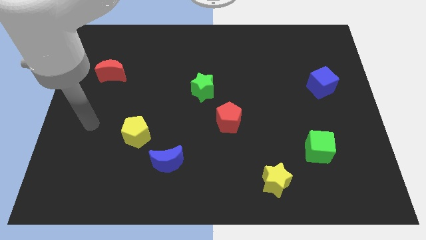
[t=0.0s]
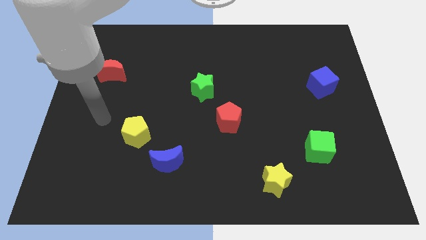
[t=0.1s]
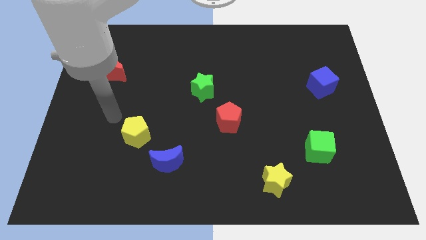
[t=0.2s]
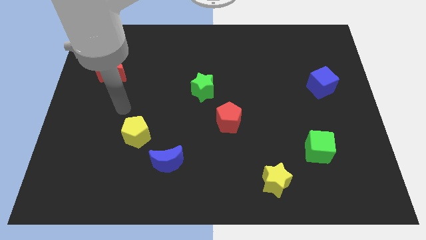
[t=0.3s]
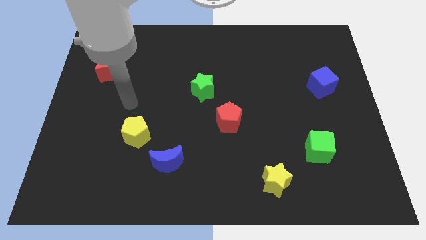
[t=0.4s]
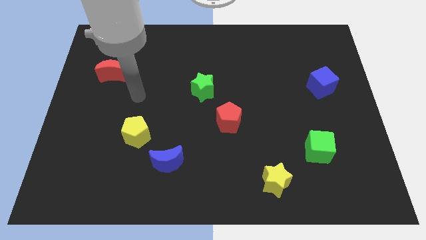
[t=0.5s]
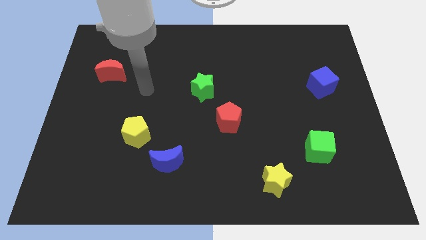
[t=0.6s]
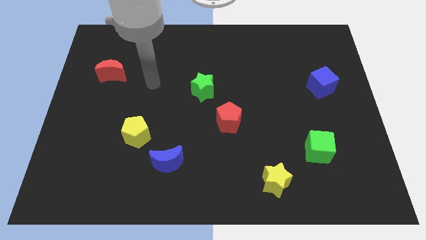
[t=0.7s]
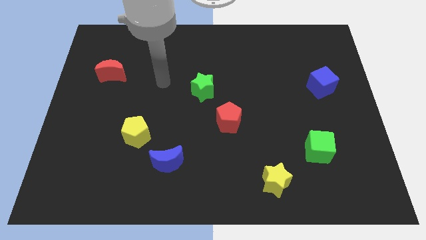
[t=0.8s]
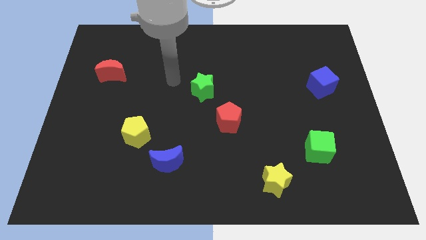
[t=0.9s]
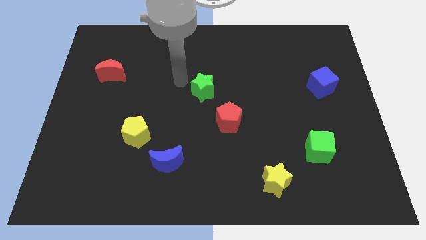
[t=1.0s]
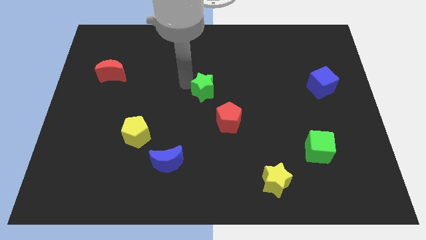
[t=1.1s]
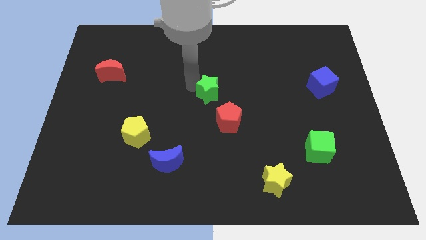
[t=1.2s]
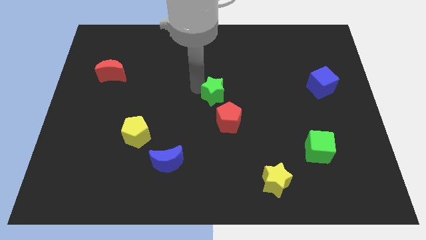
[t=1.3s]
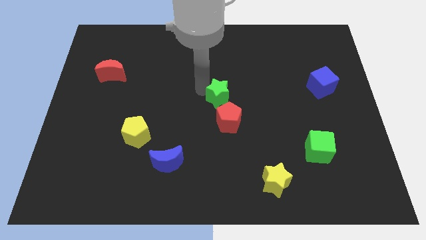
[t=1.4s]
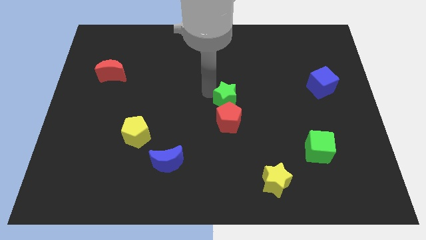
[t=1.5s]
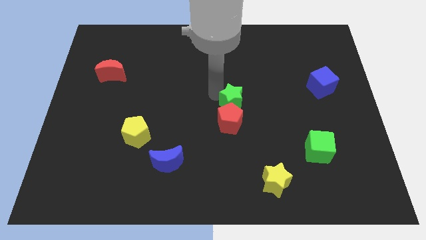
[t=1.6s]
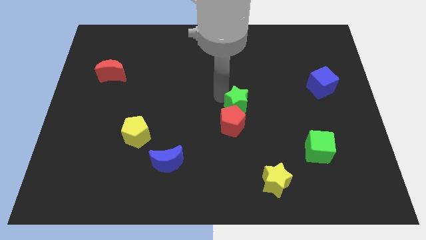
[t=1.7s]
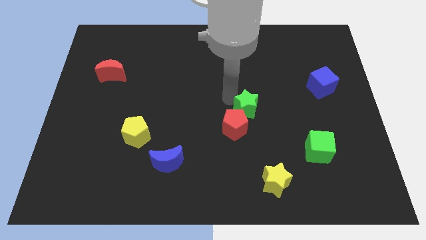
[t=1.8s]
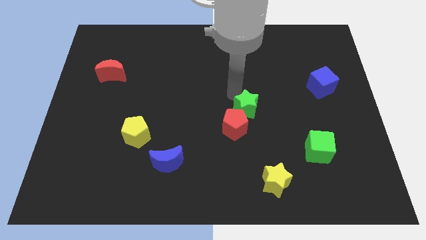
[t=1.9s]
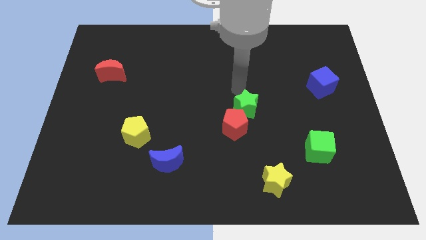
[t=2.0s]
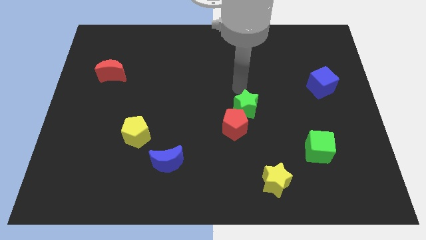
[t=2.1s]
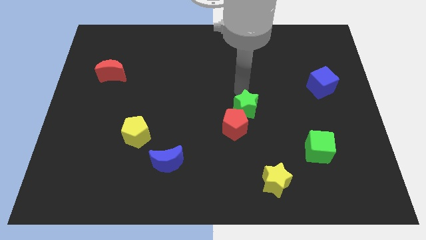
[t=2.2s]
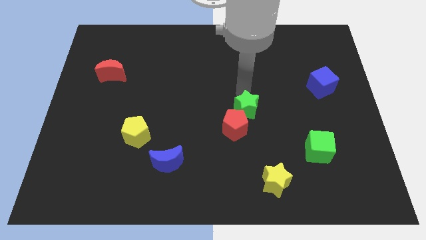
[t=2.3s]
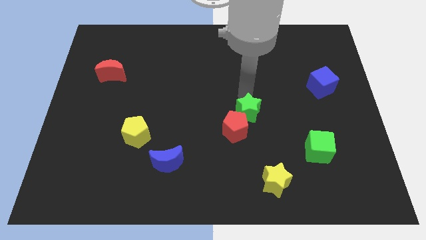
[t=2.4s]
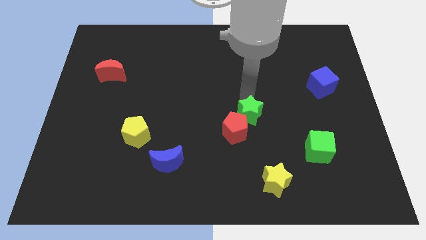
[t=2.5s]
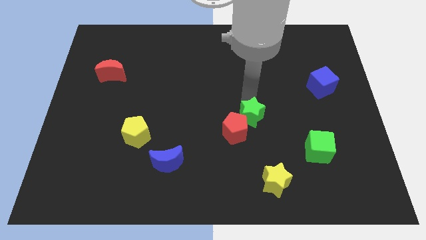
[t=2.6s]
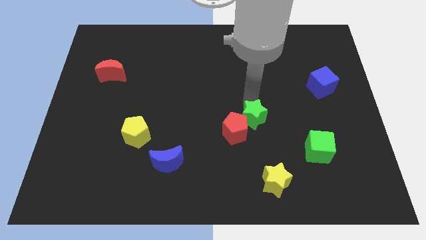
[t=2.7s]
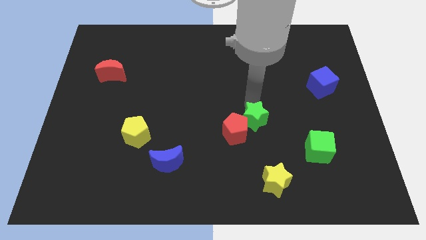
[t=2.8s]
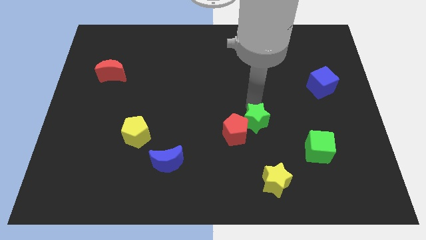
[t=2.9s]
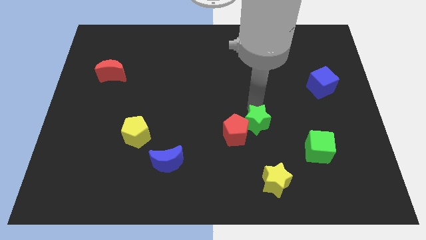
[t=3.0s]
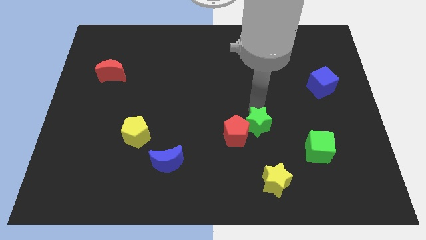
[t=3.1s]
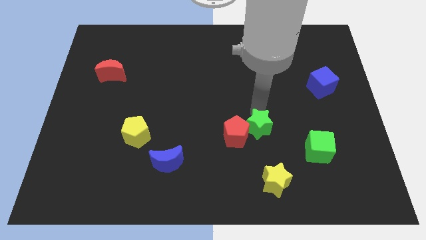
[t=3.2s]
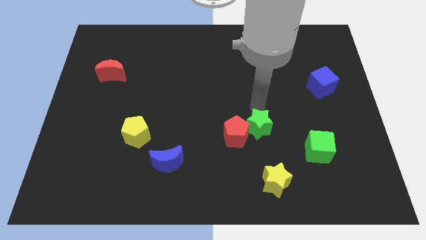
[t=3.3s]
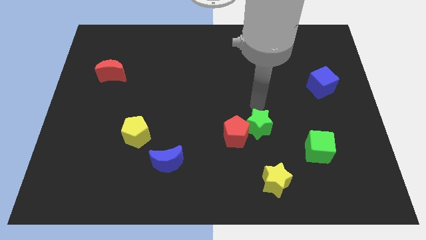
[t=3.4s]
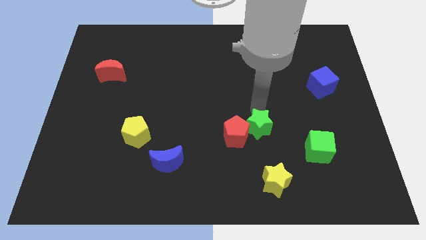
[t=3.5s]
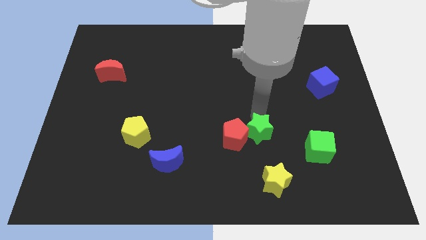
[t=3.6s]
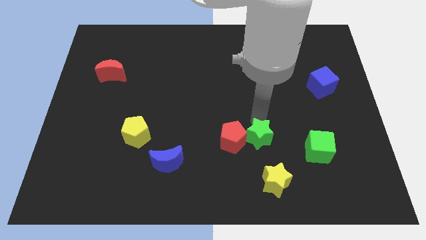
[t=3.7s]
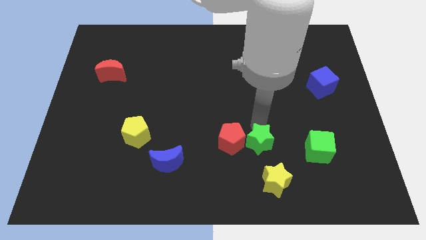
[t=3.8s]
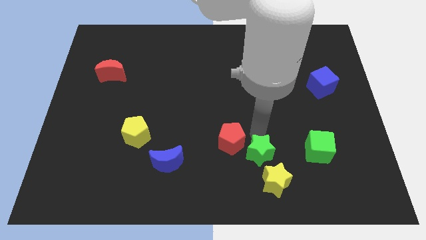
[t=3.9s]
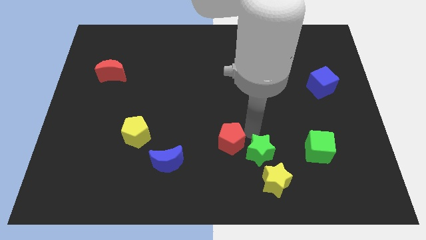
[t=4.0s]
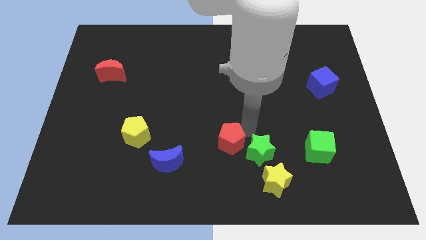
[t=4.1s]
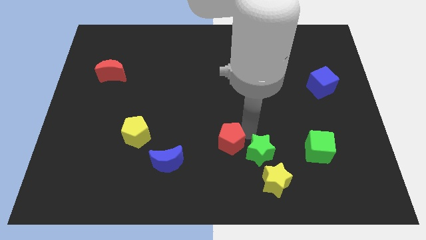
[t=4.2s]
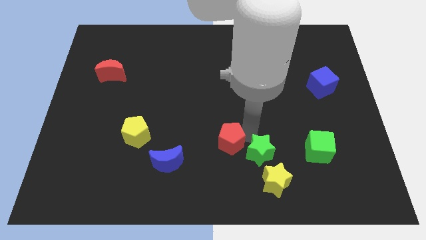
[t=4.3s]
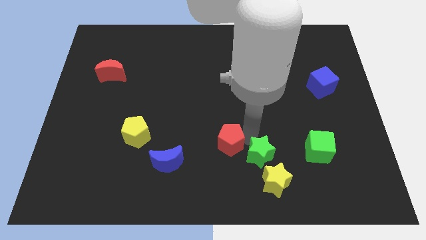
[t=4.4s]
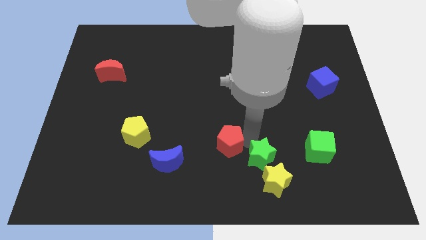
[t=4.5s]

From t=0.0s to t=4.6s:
put the green star to the yellow star

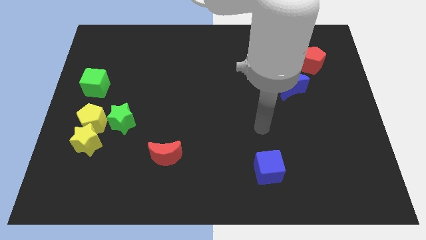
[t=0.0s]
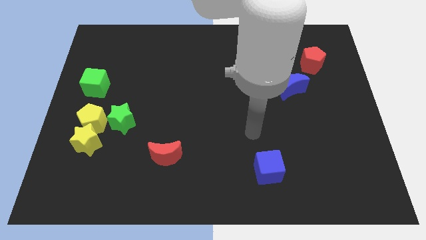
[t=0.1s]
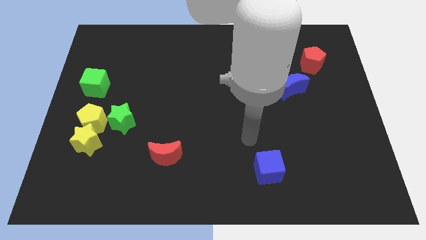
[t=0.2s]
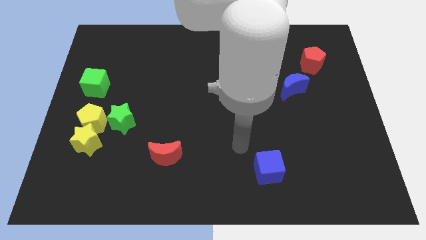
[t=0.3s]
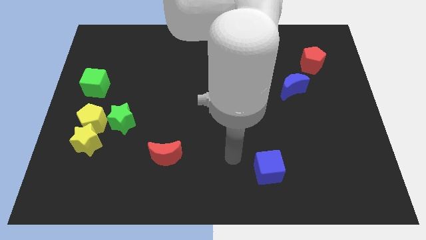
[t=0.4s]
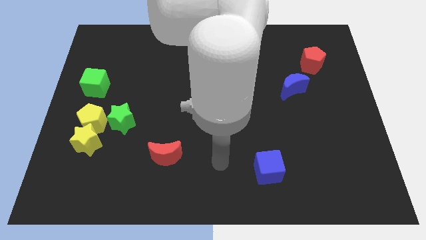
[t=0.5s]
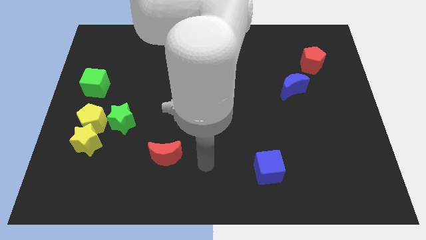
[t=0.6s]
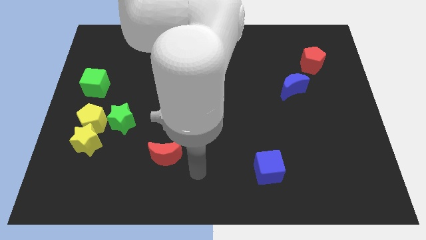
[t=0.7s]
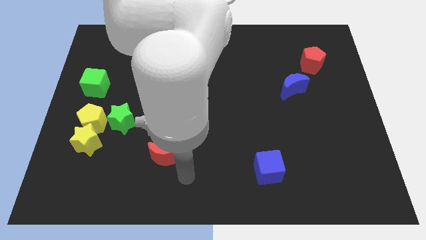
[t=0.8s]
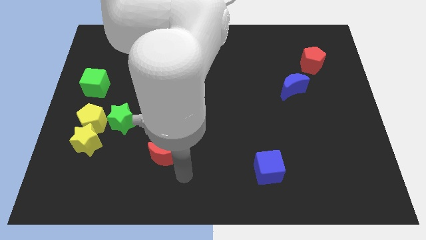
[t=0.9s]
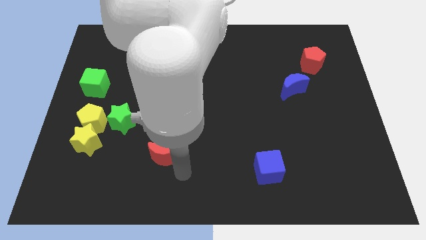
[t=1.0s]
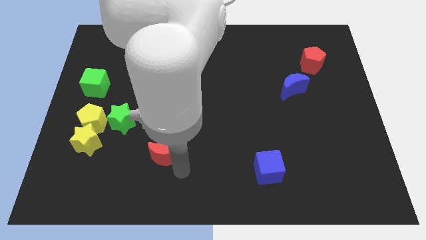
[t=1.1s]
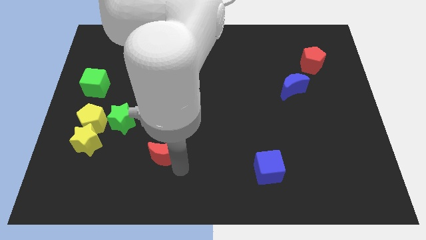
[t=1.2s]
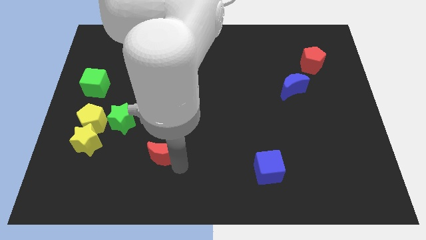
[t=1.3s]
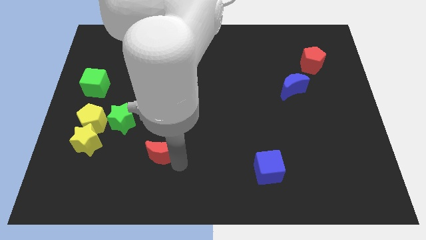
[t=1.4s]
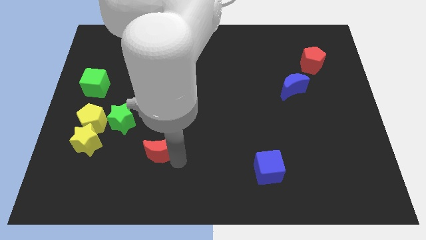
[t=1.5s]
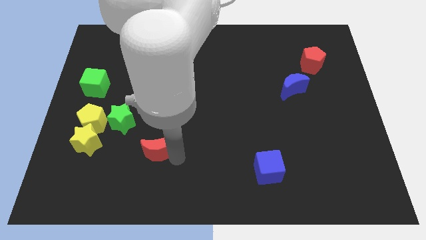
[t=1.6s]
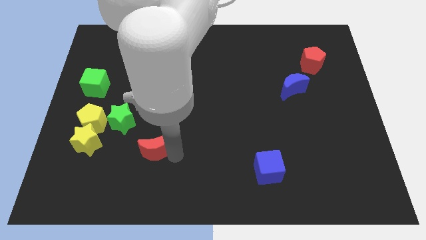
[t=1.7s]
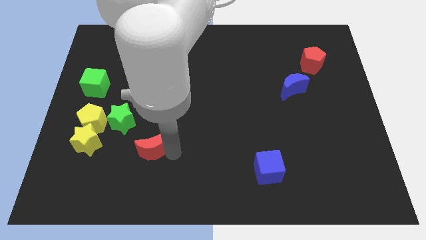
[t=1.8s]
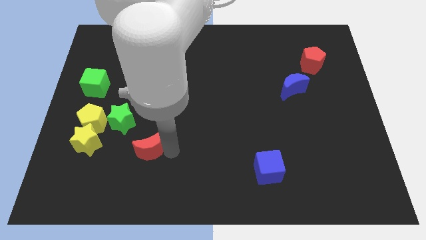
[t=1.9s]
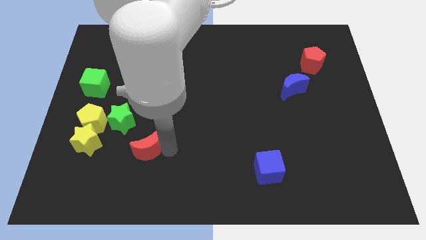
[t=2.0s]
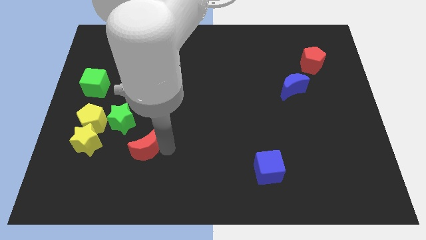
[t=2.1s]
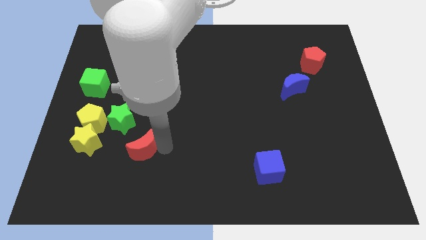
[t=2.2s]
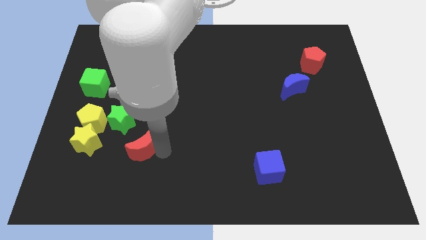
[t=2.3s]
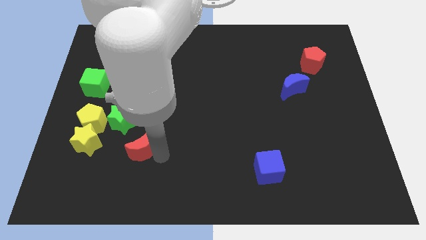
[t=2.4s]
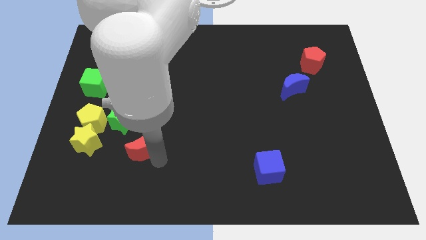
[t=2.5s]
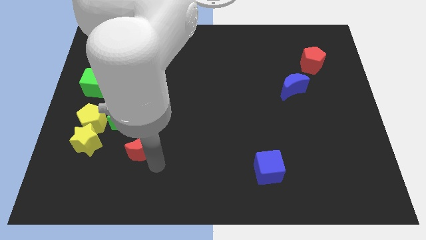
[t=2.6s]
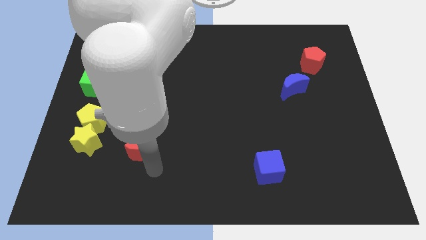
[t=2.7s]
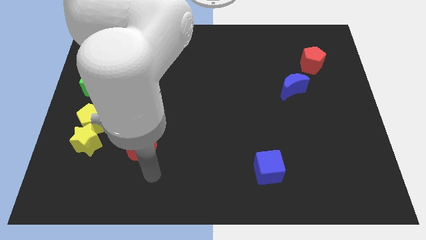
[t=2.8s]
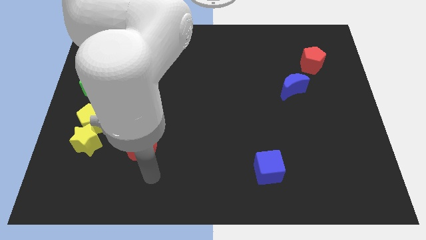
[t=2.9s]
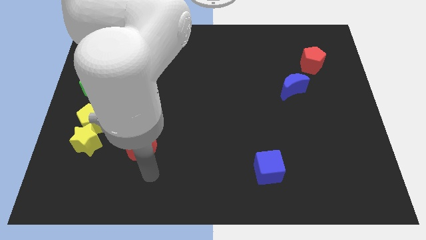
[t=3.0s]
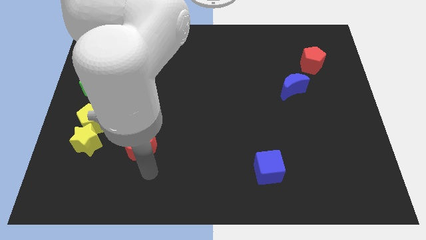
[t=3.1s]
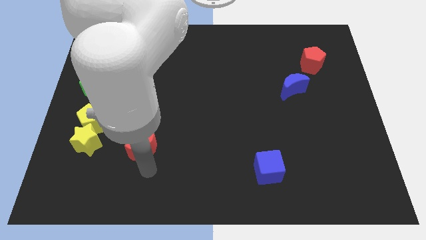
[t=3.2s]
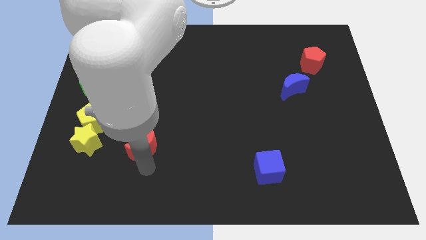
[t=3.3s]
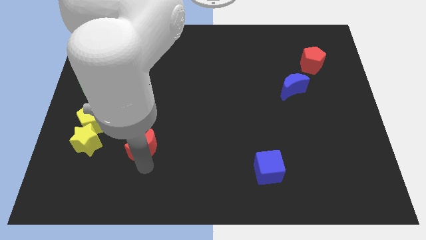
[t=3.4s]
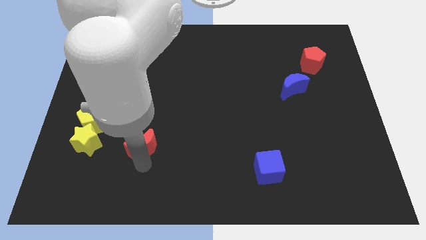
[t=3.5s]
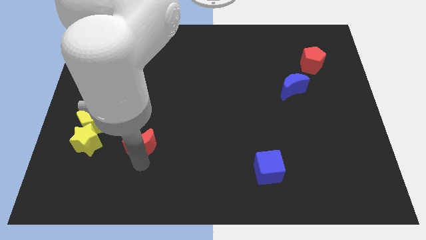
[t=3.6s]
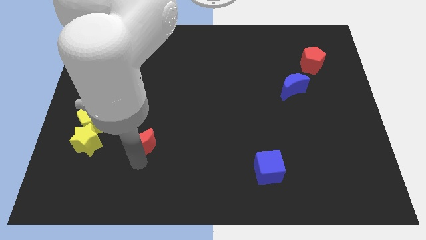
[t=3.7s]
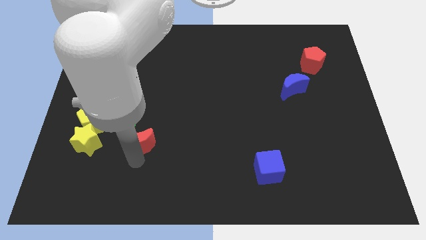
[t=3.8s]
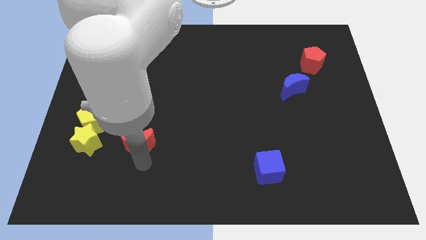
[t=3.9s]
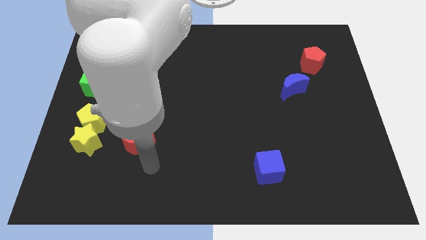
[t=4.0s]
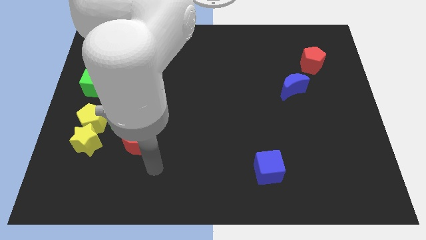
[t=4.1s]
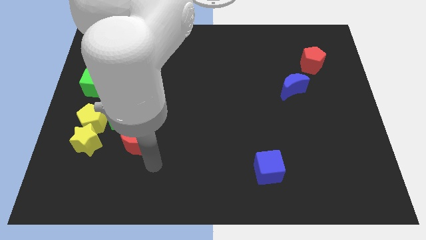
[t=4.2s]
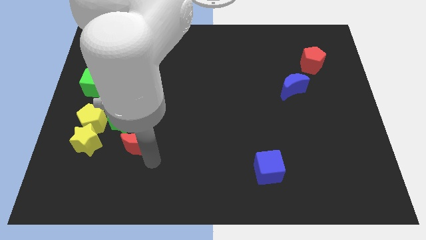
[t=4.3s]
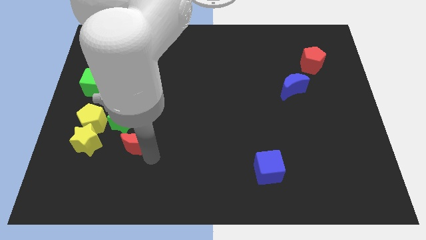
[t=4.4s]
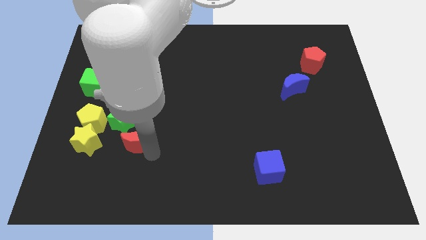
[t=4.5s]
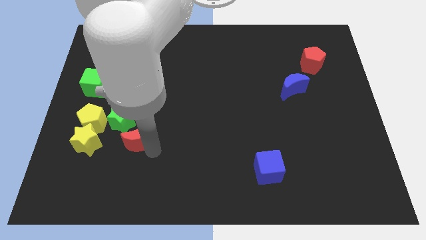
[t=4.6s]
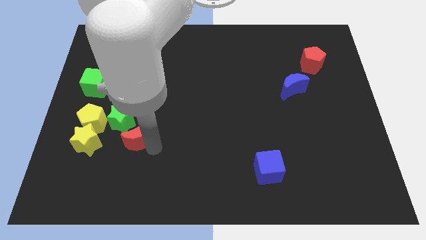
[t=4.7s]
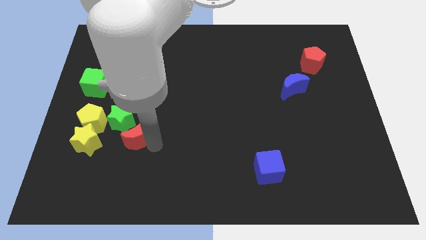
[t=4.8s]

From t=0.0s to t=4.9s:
push the red moon towards the green star
